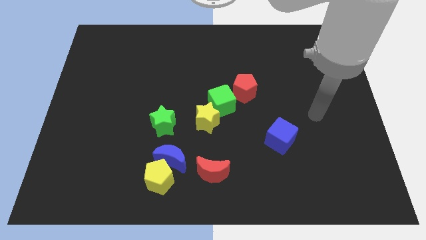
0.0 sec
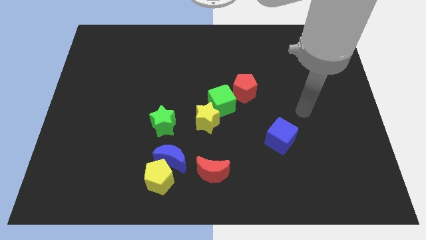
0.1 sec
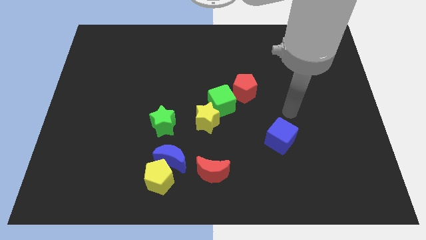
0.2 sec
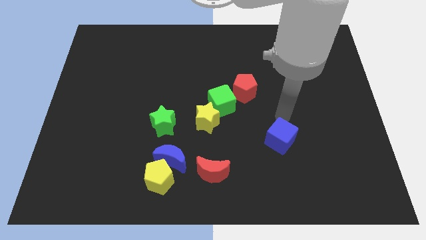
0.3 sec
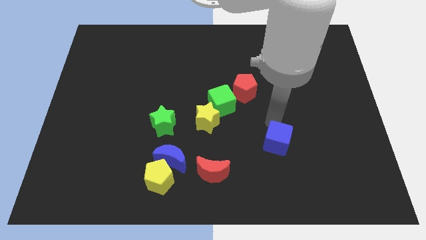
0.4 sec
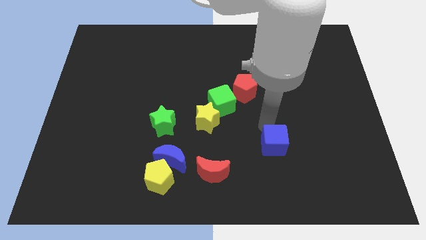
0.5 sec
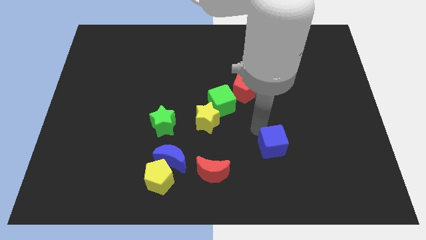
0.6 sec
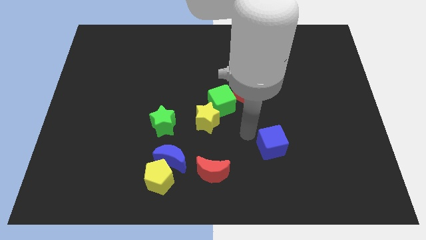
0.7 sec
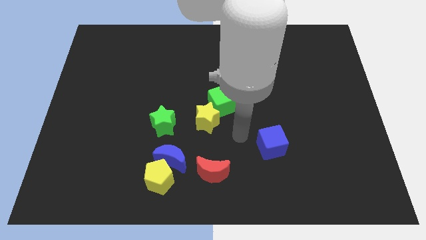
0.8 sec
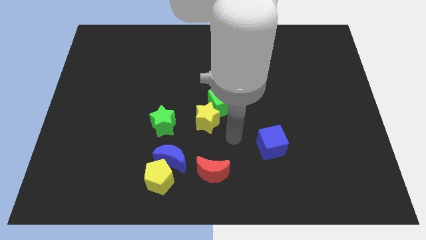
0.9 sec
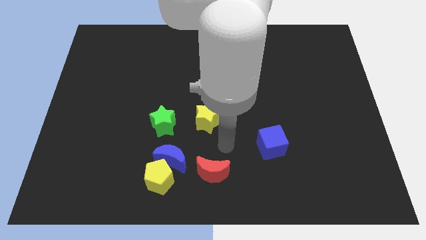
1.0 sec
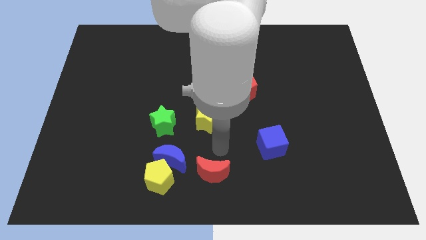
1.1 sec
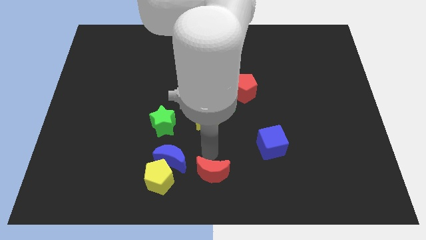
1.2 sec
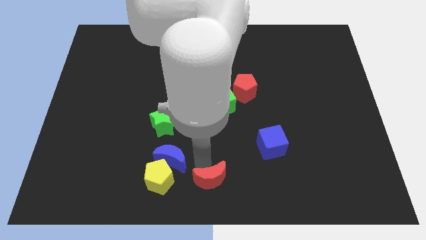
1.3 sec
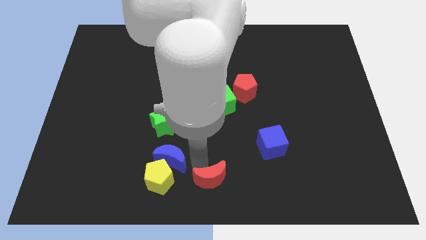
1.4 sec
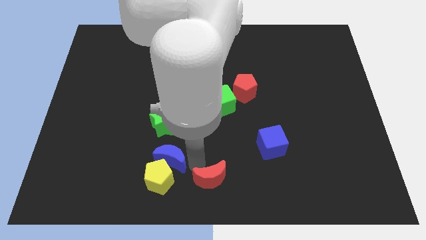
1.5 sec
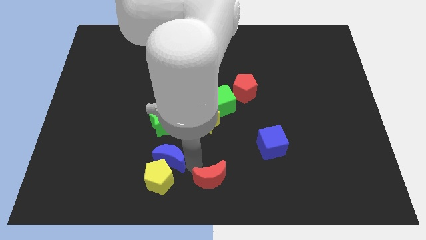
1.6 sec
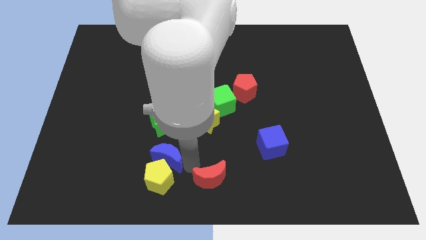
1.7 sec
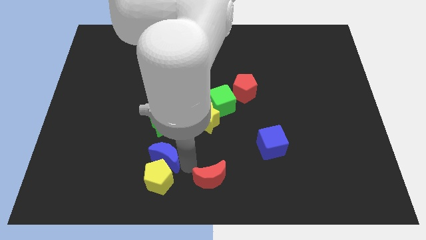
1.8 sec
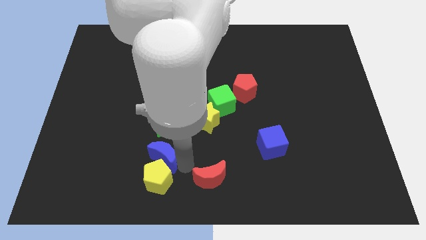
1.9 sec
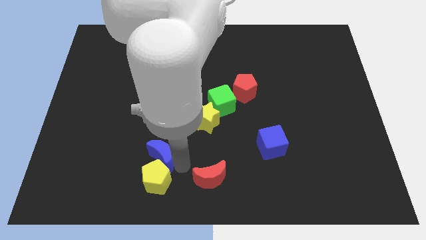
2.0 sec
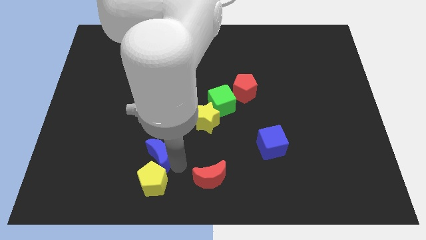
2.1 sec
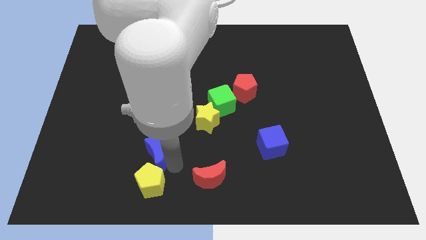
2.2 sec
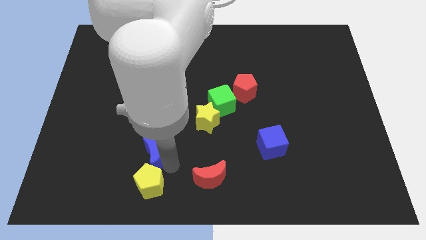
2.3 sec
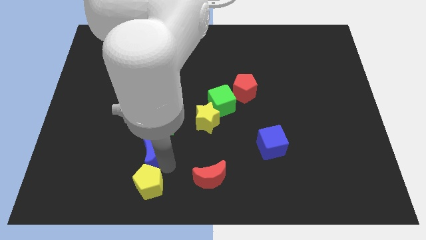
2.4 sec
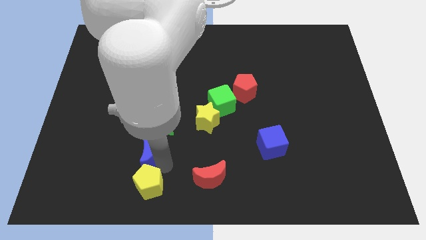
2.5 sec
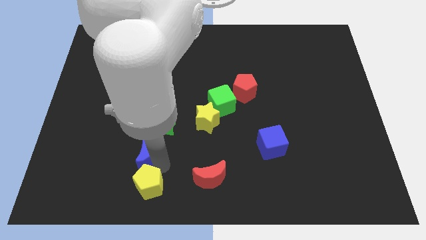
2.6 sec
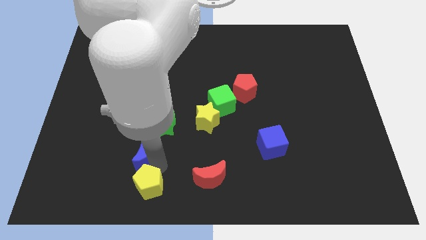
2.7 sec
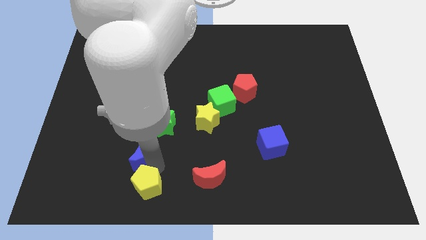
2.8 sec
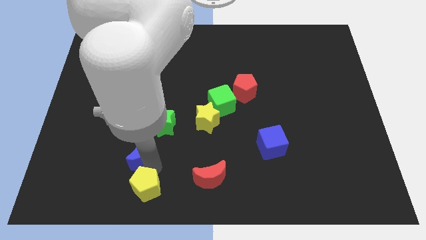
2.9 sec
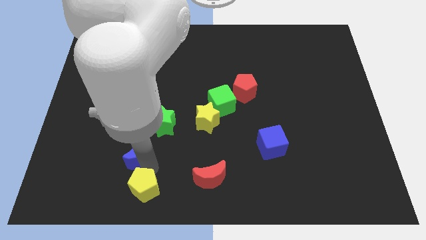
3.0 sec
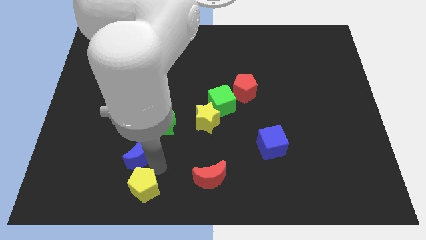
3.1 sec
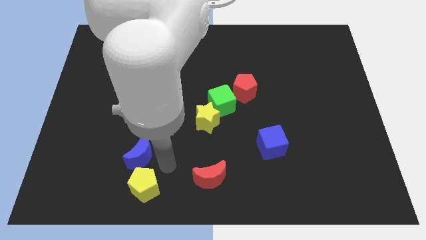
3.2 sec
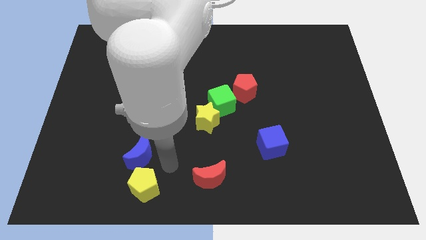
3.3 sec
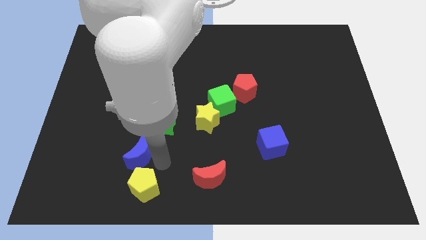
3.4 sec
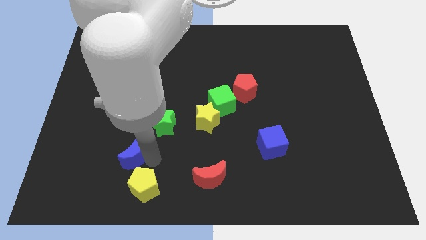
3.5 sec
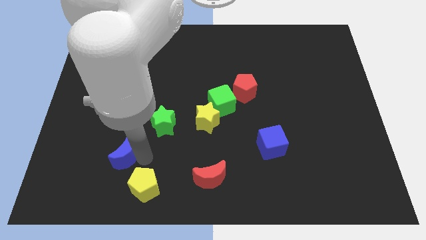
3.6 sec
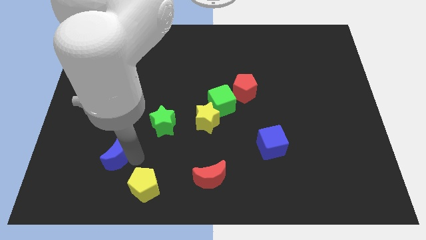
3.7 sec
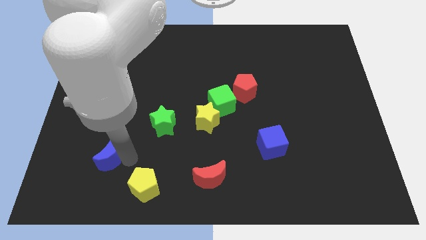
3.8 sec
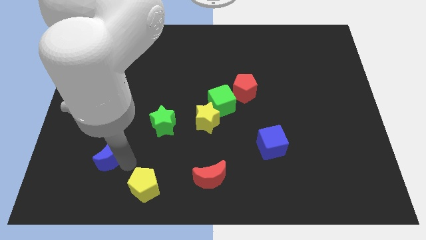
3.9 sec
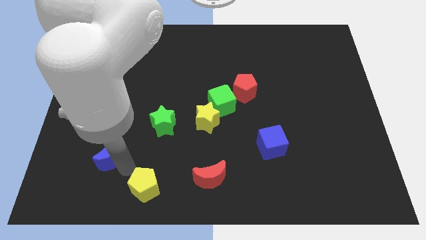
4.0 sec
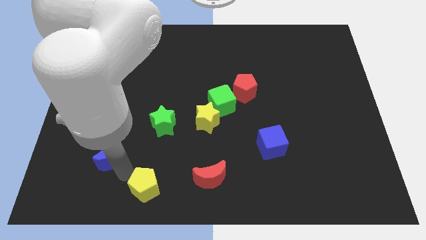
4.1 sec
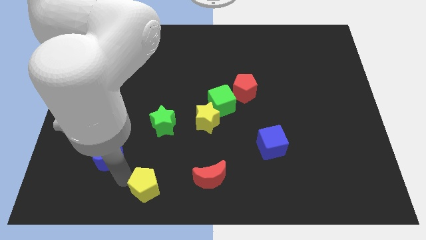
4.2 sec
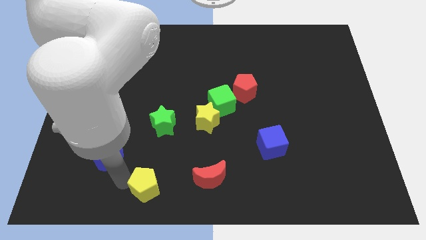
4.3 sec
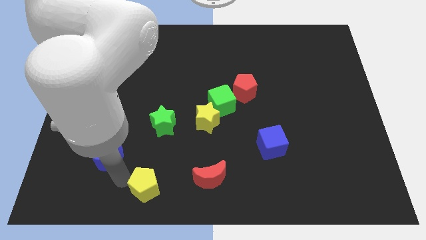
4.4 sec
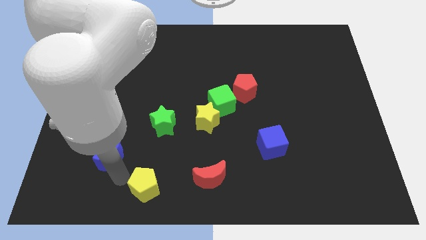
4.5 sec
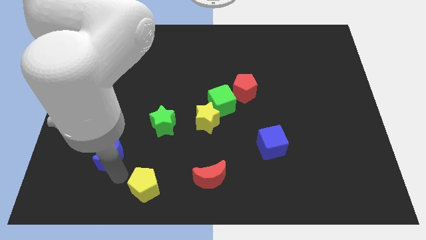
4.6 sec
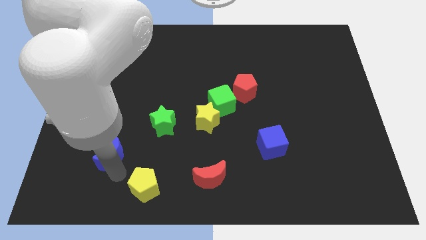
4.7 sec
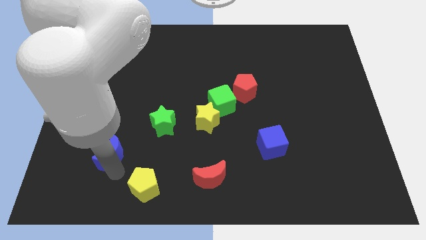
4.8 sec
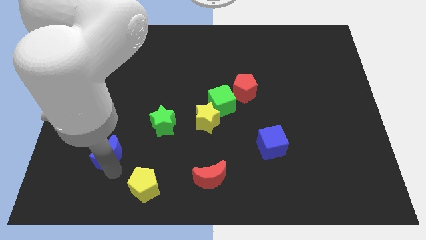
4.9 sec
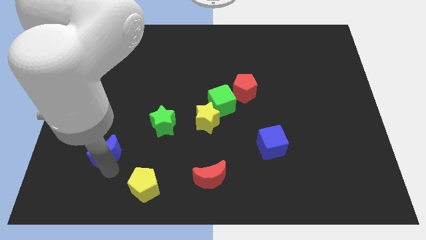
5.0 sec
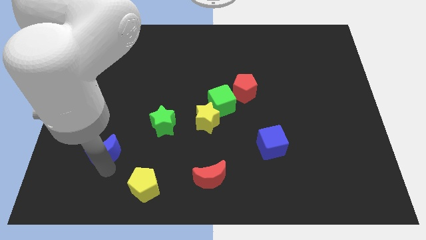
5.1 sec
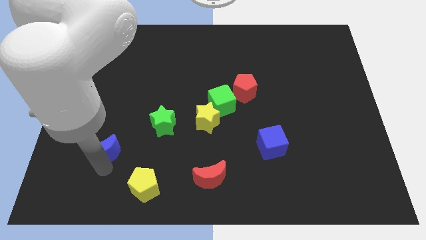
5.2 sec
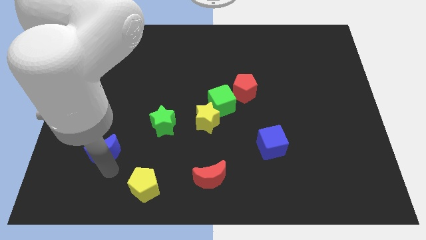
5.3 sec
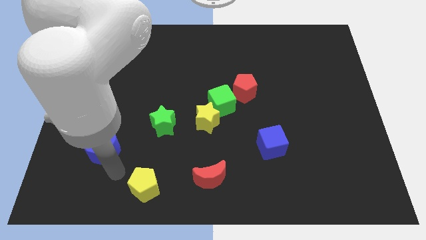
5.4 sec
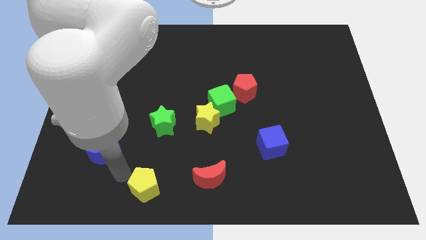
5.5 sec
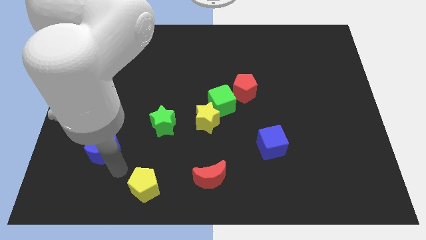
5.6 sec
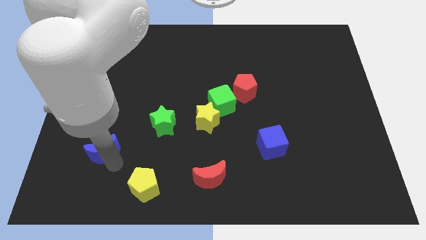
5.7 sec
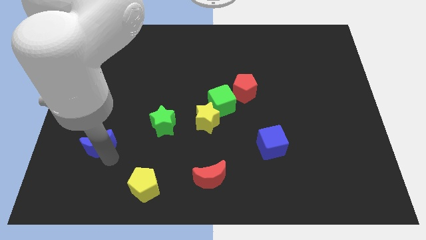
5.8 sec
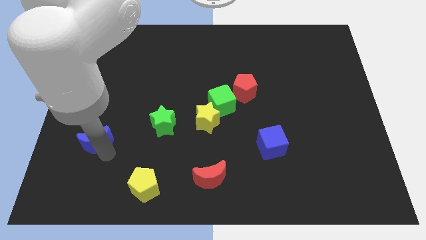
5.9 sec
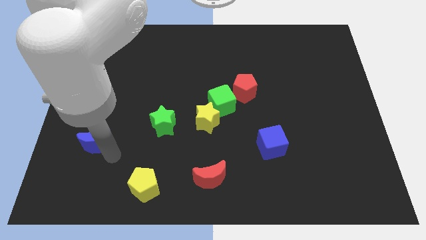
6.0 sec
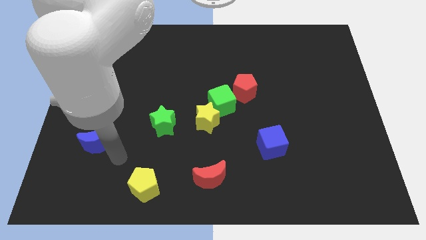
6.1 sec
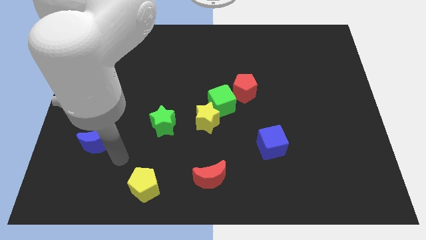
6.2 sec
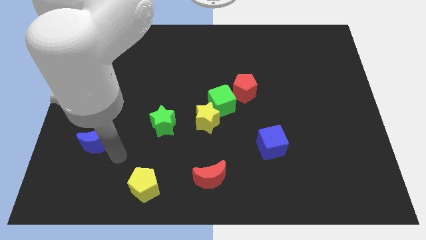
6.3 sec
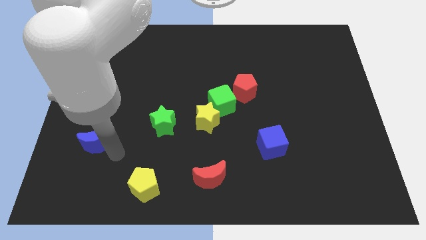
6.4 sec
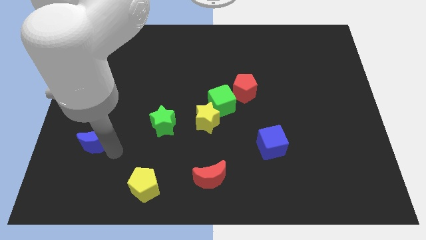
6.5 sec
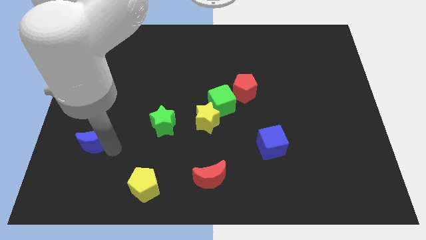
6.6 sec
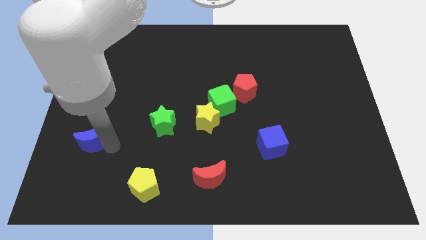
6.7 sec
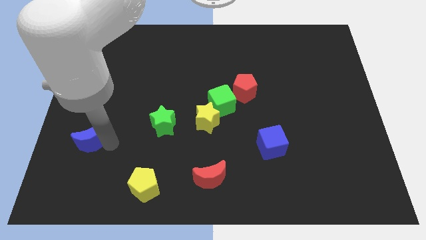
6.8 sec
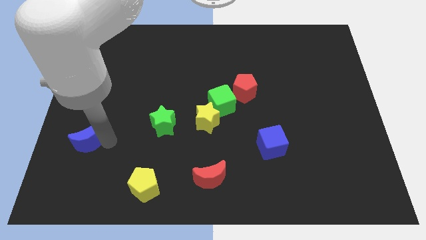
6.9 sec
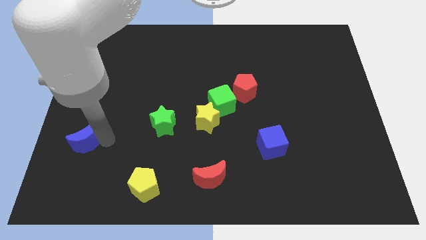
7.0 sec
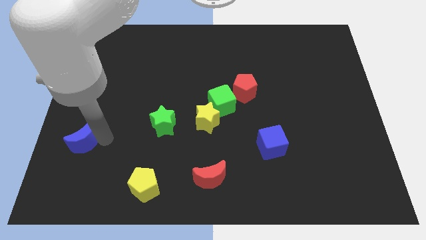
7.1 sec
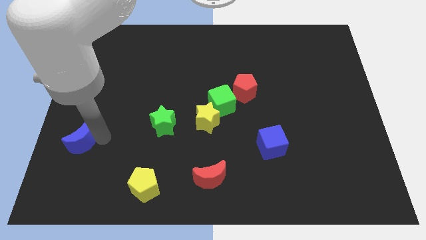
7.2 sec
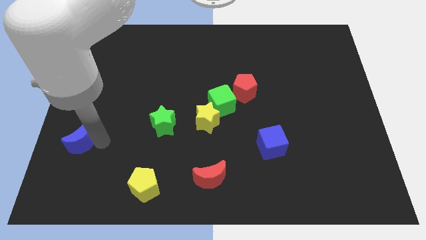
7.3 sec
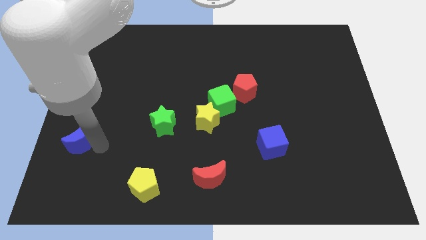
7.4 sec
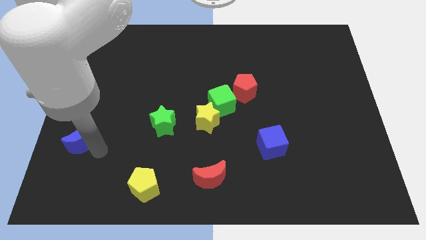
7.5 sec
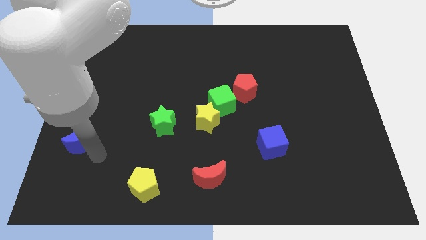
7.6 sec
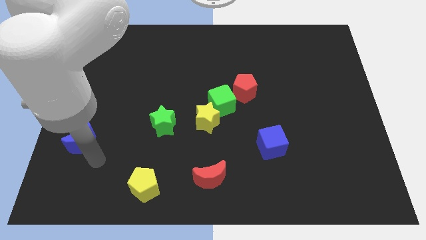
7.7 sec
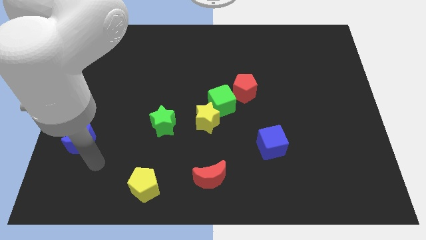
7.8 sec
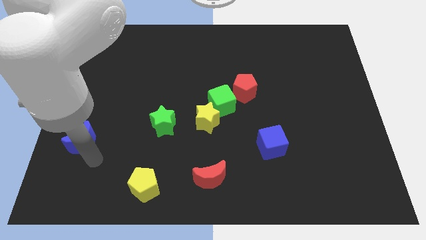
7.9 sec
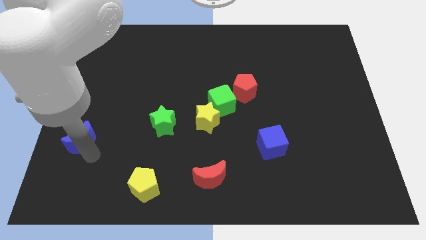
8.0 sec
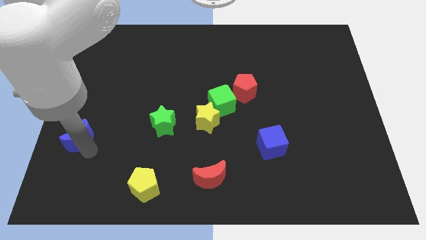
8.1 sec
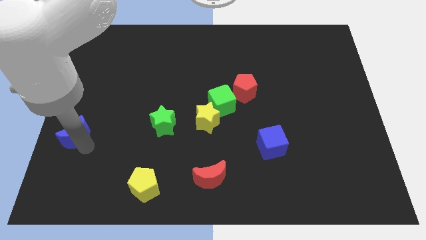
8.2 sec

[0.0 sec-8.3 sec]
move the blue moon to the center left

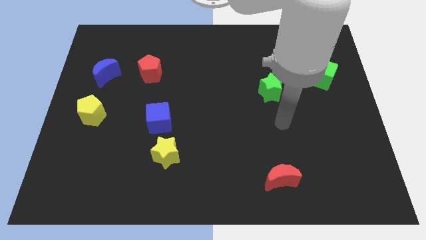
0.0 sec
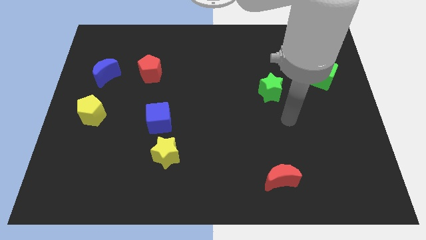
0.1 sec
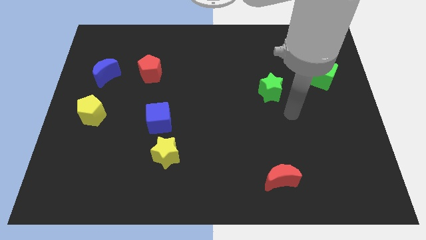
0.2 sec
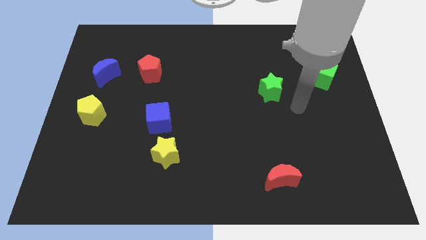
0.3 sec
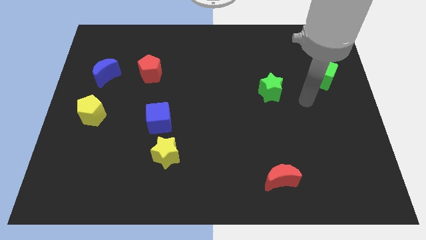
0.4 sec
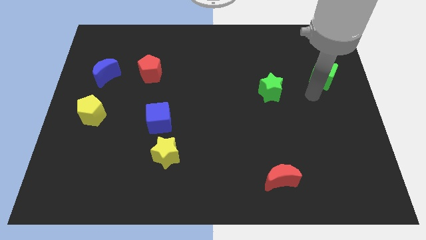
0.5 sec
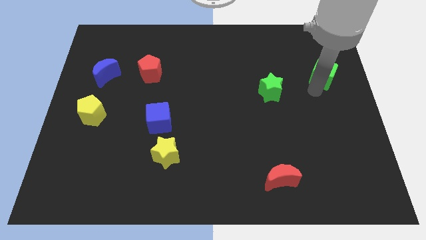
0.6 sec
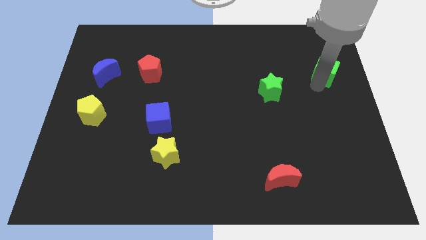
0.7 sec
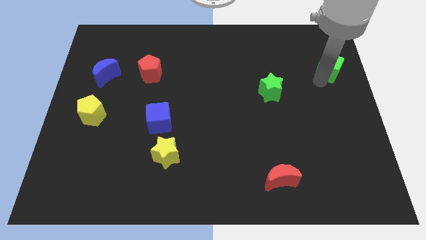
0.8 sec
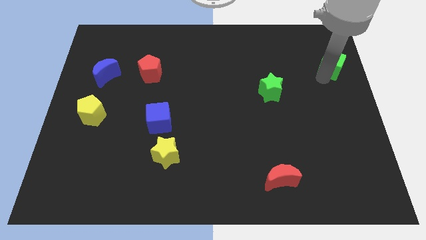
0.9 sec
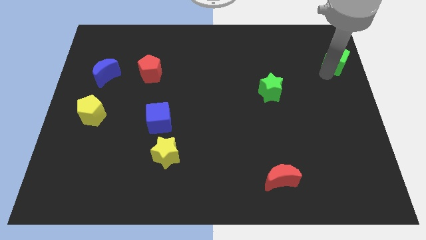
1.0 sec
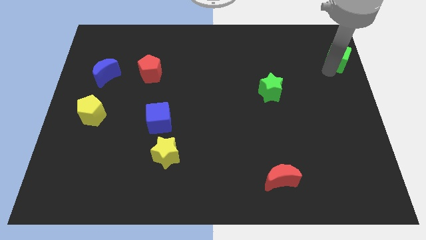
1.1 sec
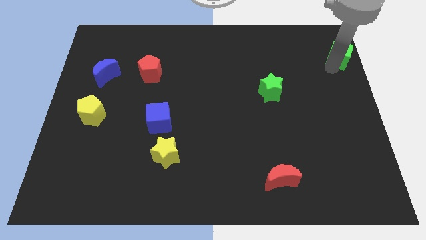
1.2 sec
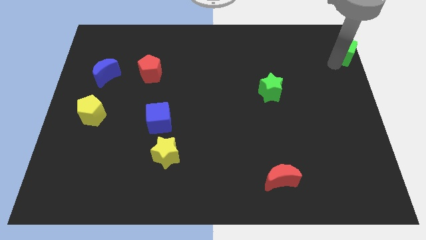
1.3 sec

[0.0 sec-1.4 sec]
push the green cube to the top right corner
